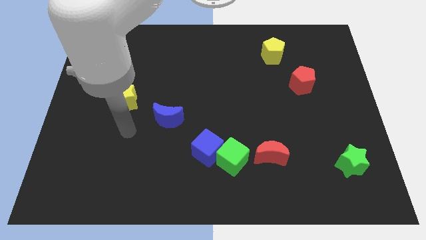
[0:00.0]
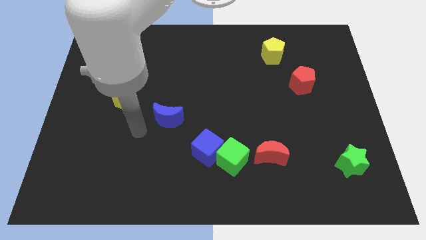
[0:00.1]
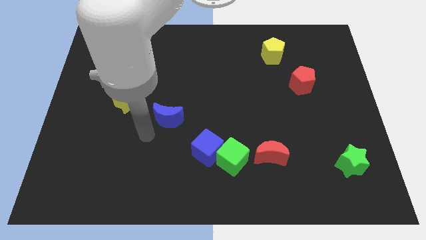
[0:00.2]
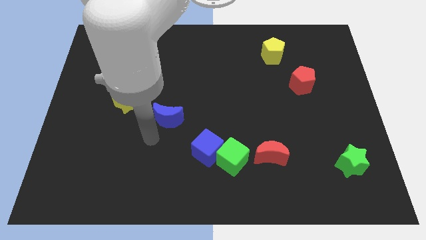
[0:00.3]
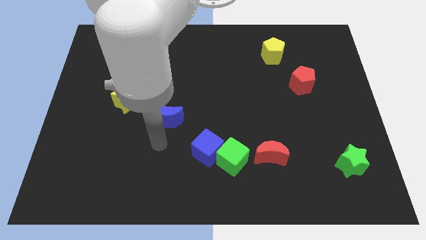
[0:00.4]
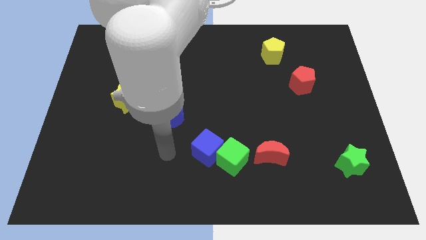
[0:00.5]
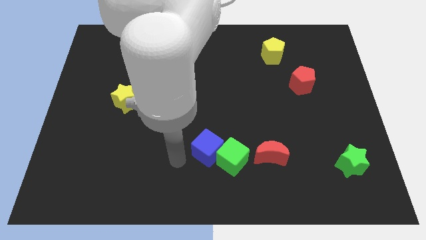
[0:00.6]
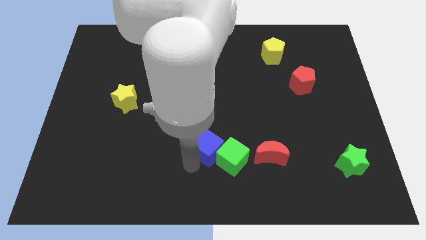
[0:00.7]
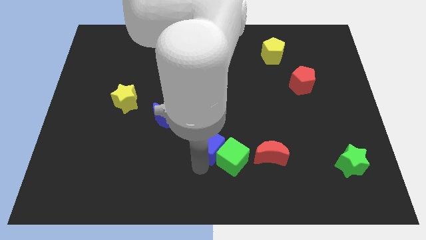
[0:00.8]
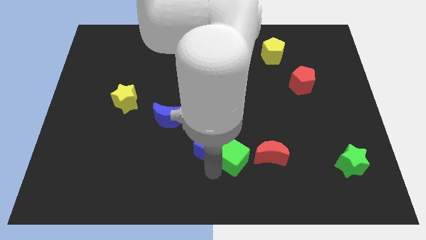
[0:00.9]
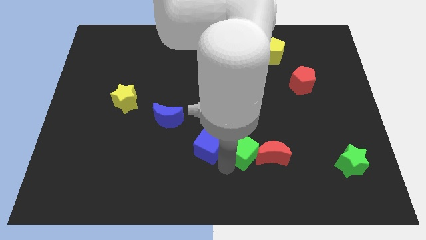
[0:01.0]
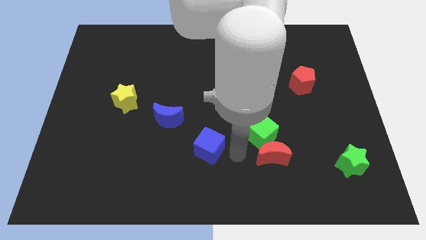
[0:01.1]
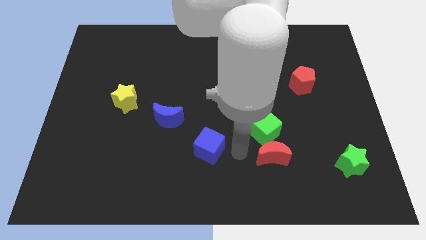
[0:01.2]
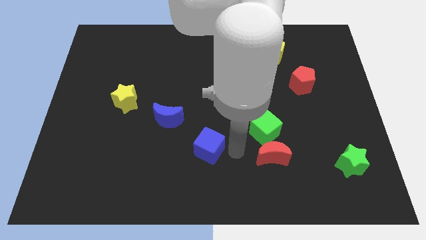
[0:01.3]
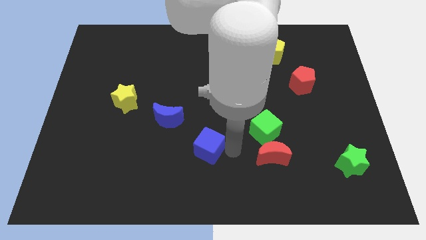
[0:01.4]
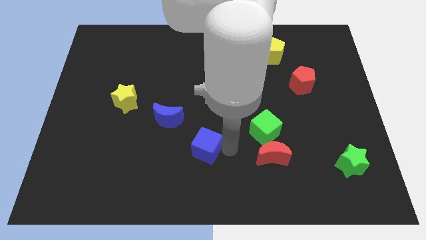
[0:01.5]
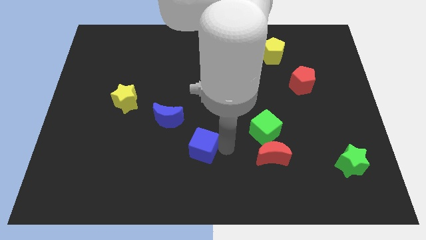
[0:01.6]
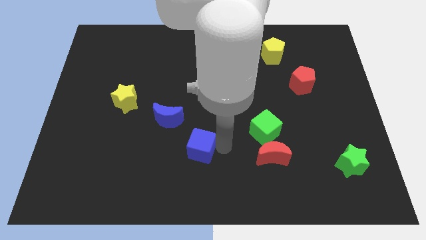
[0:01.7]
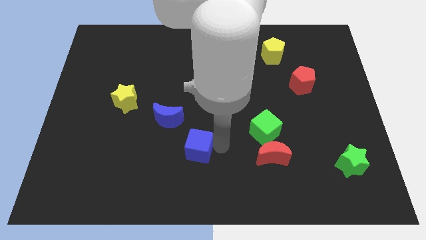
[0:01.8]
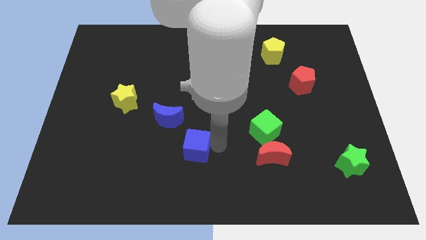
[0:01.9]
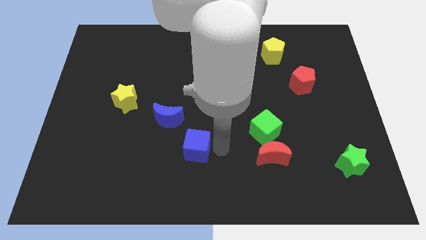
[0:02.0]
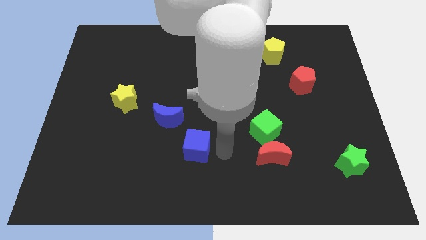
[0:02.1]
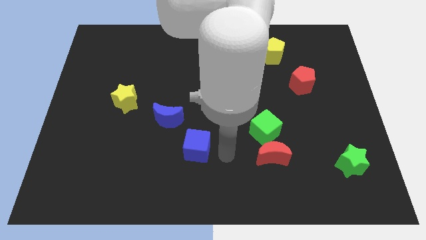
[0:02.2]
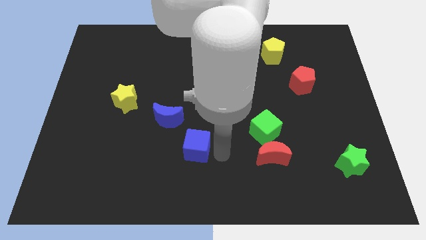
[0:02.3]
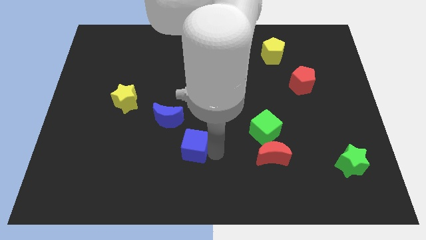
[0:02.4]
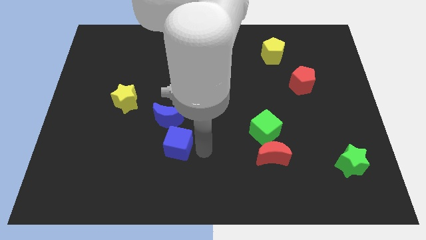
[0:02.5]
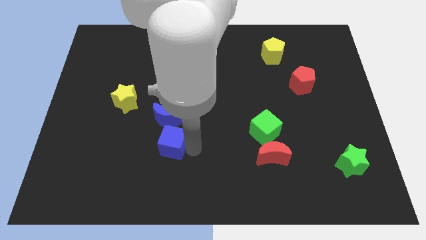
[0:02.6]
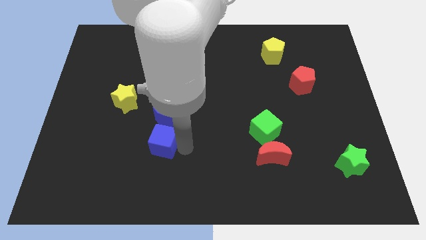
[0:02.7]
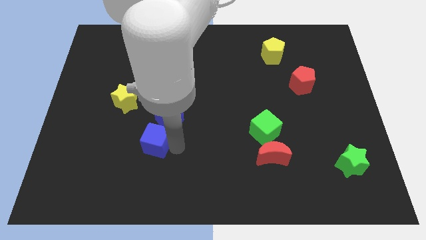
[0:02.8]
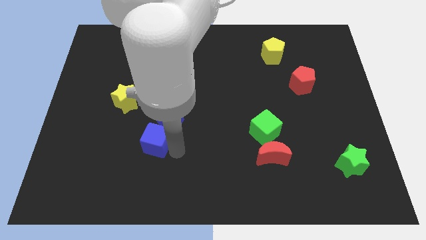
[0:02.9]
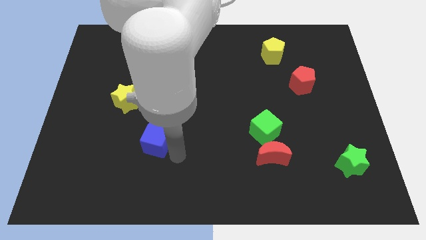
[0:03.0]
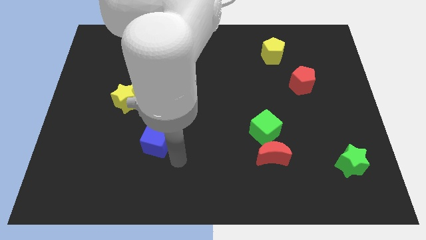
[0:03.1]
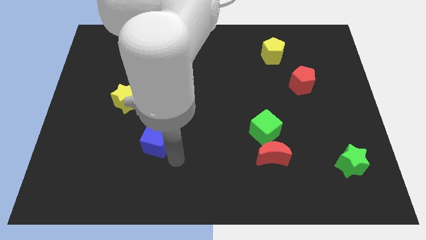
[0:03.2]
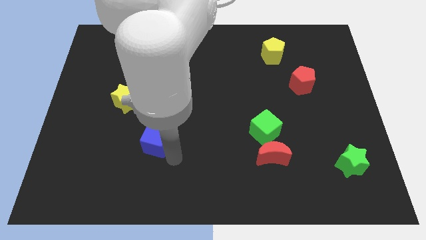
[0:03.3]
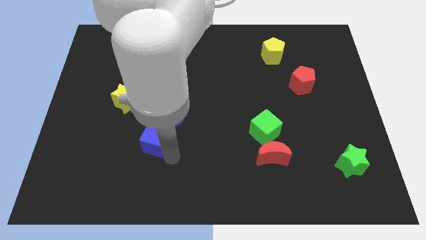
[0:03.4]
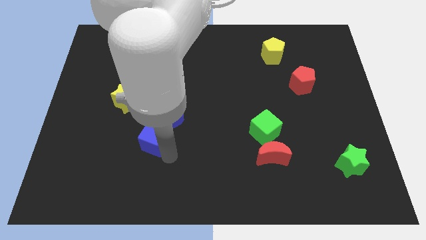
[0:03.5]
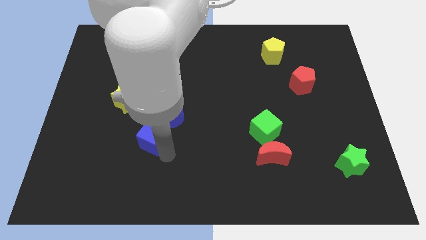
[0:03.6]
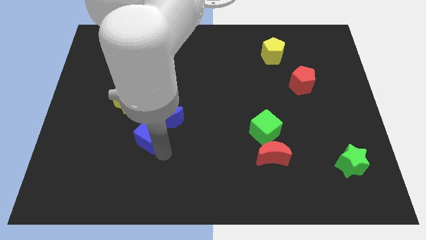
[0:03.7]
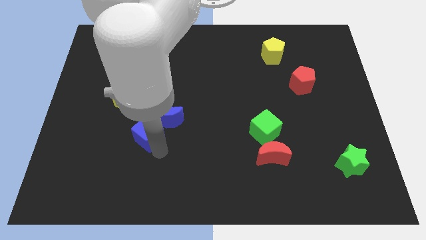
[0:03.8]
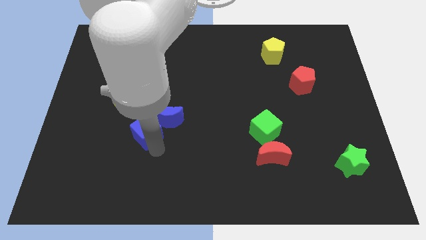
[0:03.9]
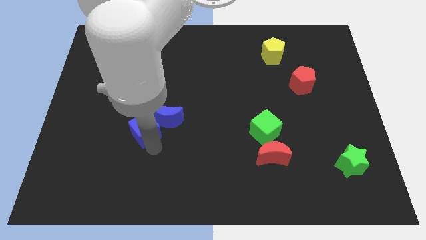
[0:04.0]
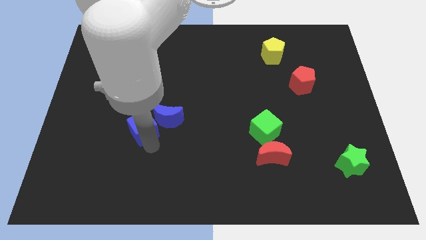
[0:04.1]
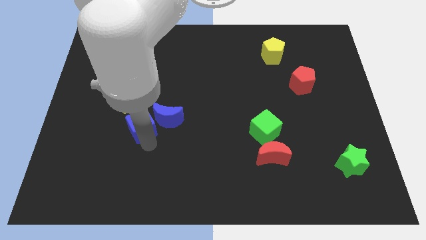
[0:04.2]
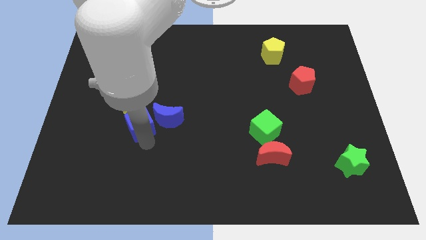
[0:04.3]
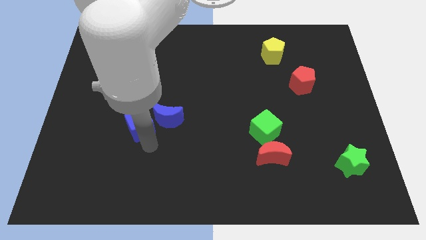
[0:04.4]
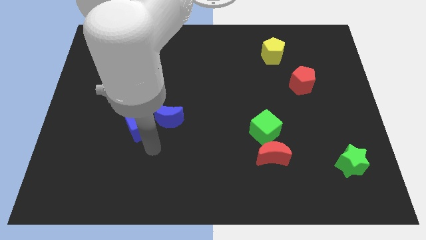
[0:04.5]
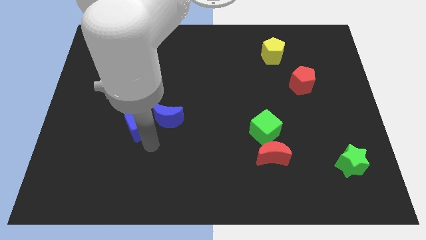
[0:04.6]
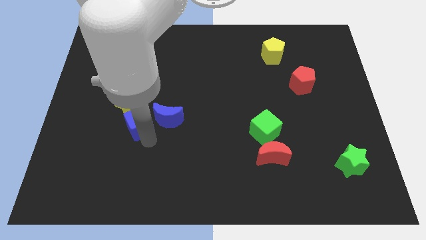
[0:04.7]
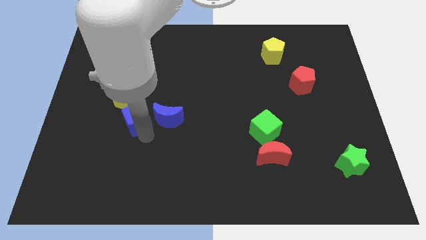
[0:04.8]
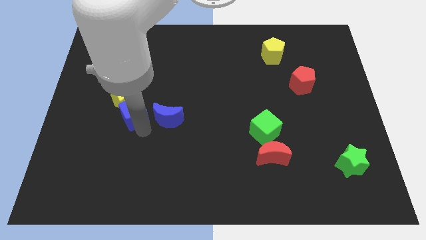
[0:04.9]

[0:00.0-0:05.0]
move the blue cube towards the yellow star

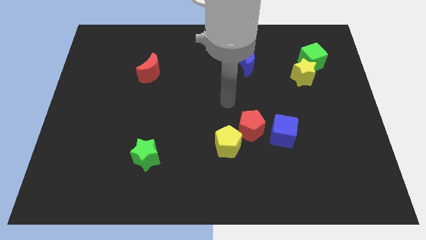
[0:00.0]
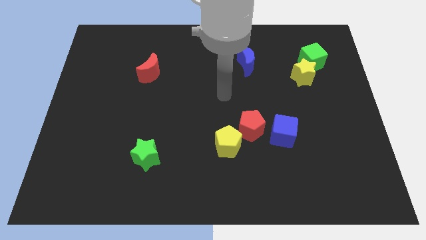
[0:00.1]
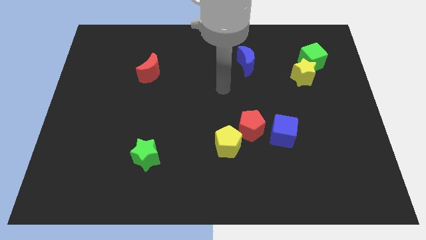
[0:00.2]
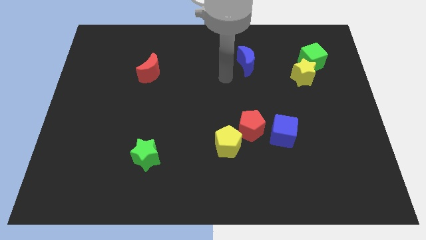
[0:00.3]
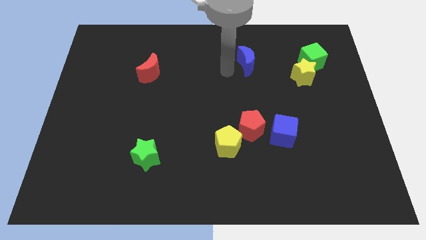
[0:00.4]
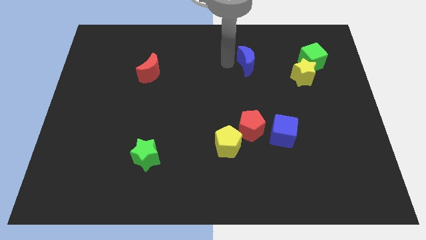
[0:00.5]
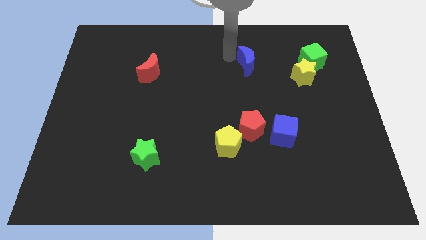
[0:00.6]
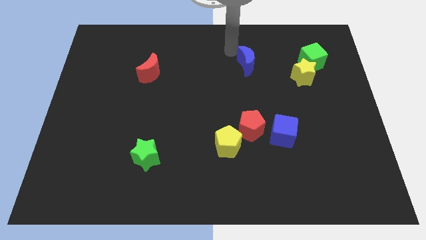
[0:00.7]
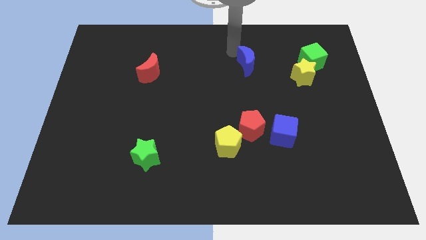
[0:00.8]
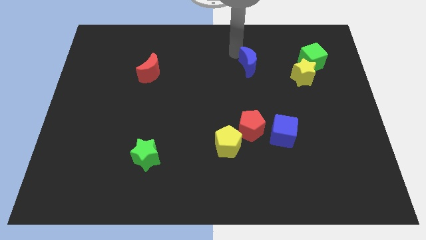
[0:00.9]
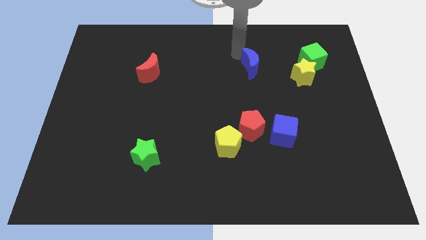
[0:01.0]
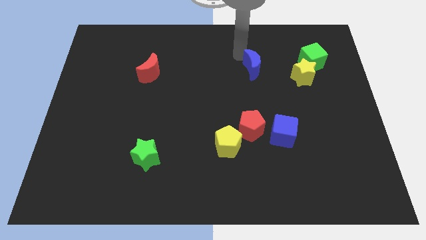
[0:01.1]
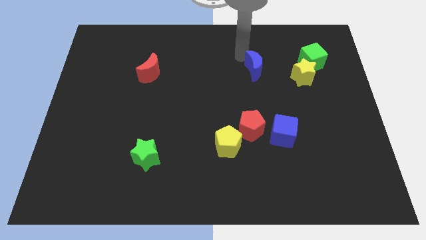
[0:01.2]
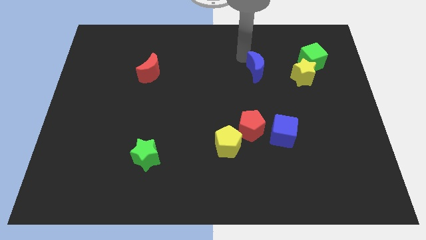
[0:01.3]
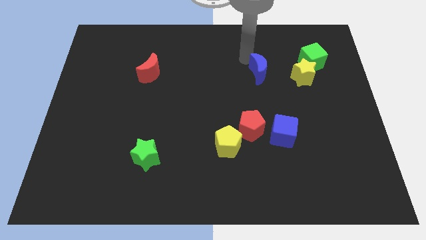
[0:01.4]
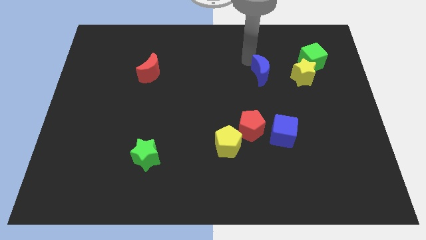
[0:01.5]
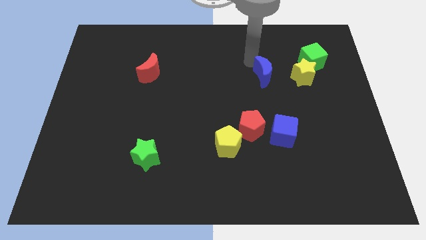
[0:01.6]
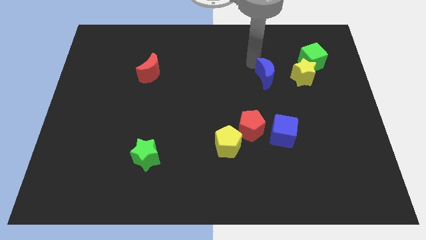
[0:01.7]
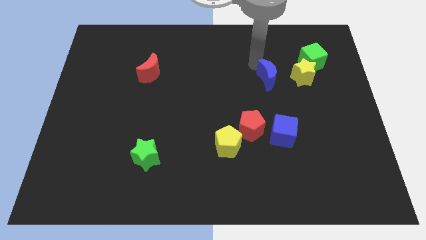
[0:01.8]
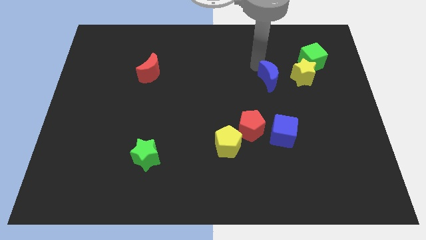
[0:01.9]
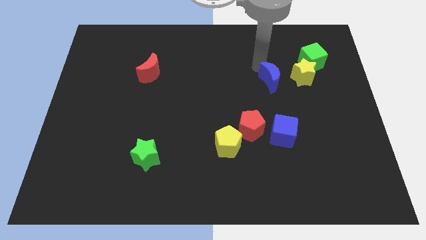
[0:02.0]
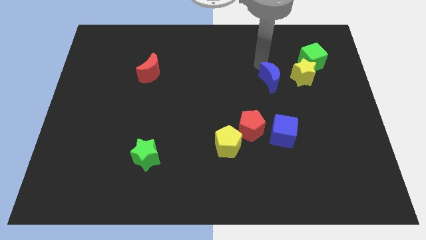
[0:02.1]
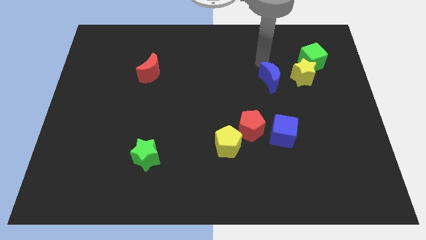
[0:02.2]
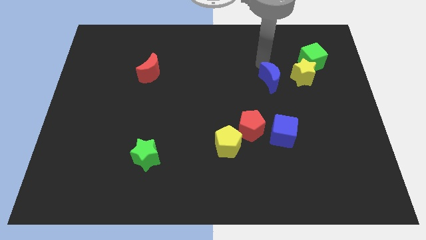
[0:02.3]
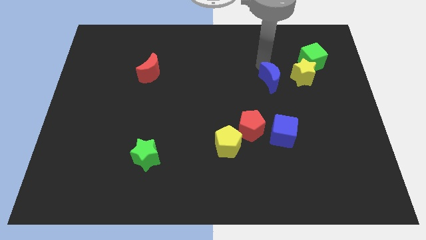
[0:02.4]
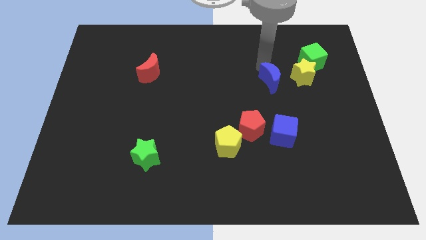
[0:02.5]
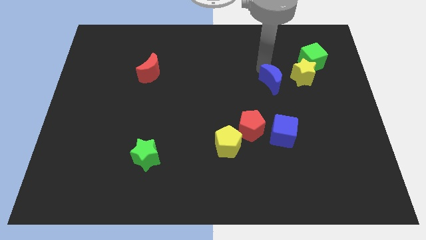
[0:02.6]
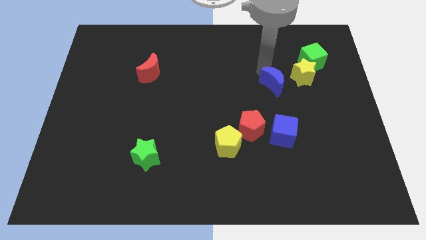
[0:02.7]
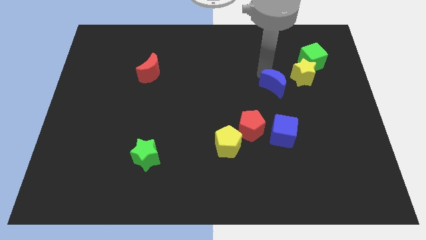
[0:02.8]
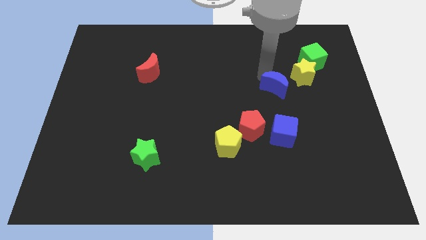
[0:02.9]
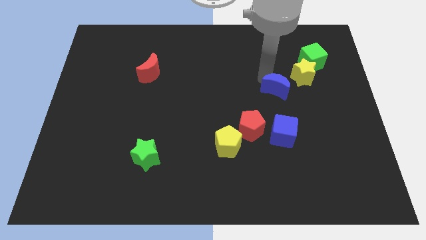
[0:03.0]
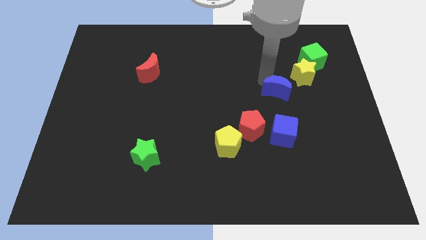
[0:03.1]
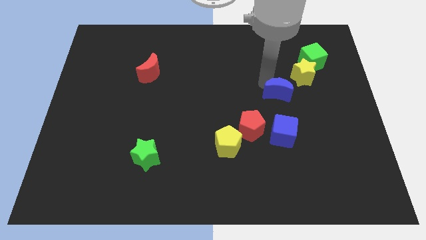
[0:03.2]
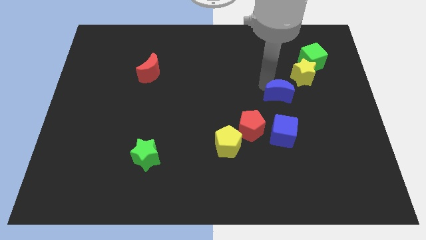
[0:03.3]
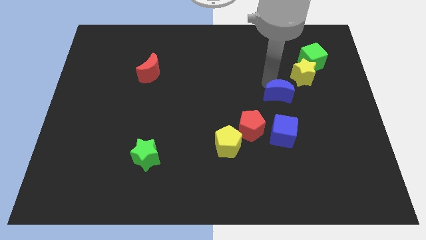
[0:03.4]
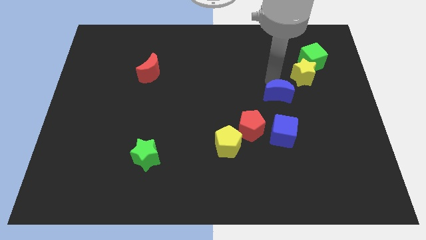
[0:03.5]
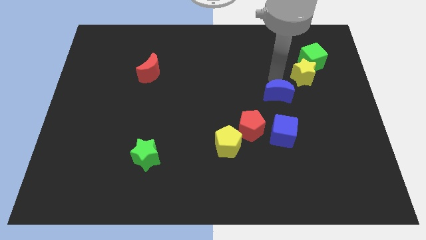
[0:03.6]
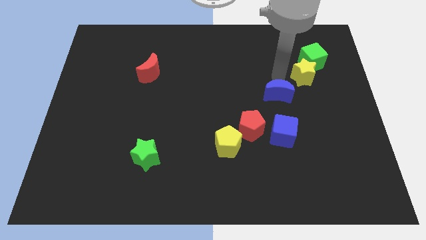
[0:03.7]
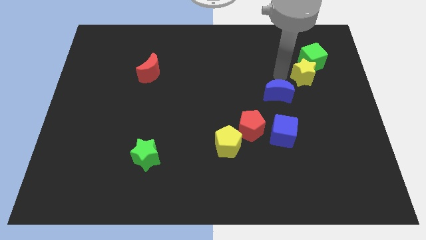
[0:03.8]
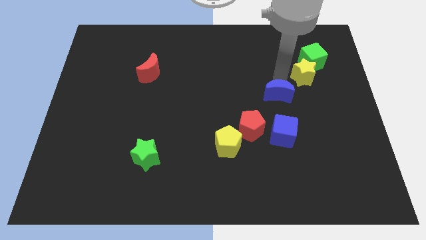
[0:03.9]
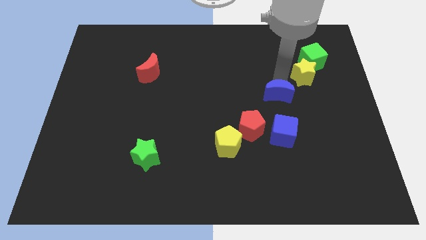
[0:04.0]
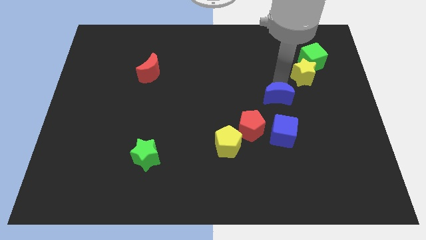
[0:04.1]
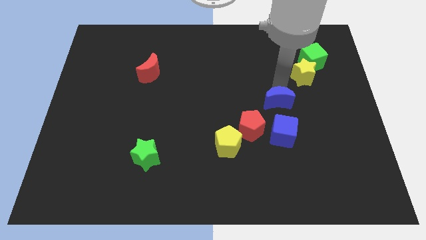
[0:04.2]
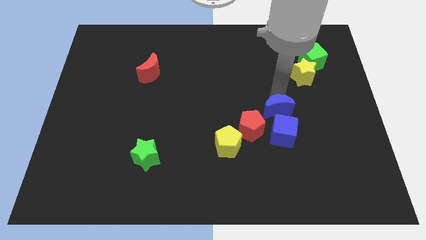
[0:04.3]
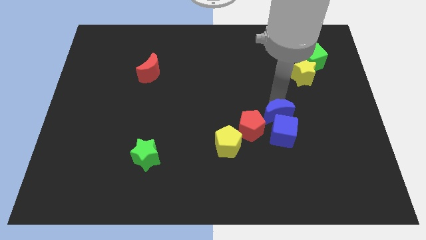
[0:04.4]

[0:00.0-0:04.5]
slide the blue moon close to the blue cube
